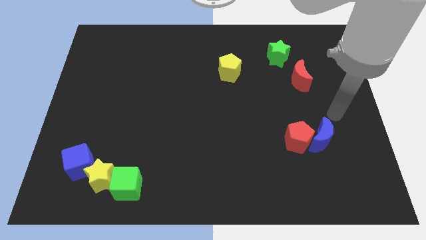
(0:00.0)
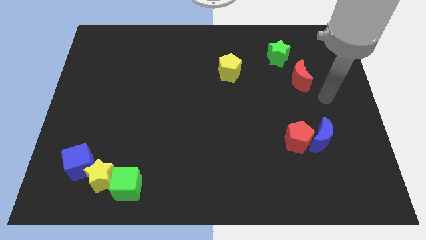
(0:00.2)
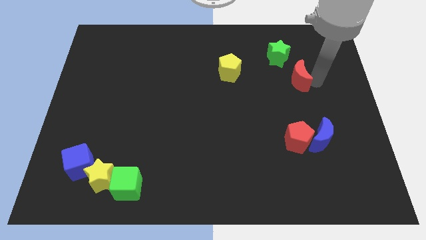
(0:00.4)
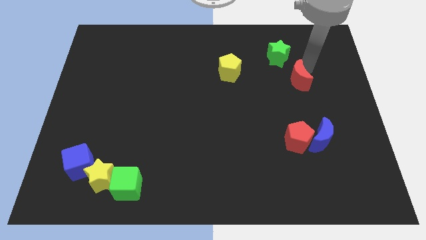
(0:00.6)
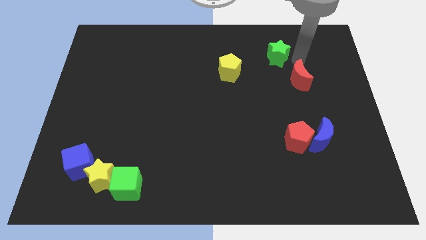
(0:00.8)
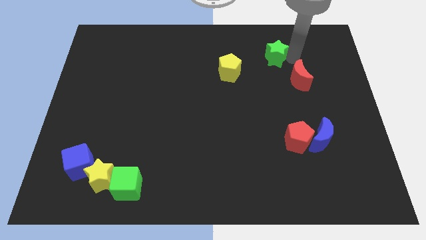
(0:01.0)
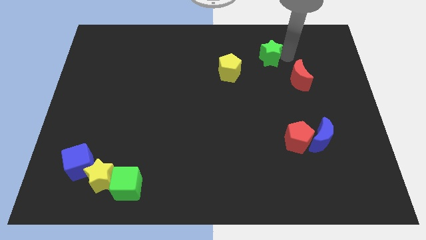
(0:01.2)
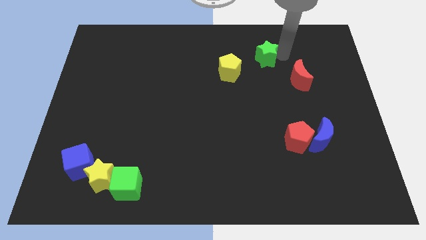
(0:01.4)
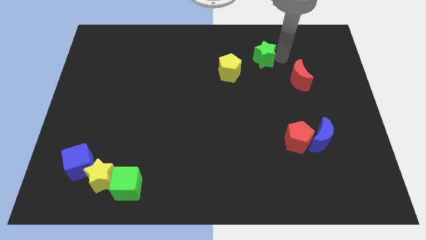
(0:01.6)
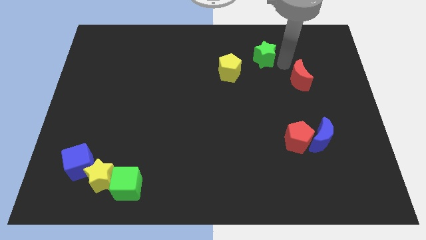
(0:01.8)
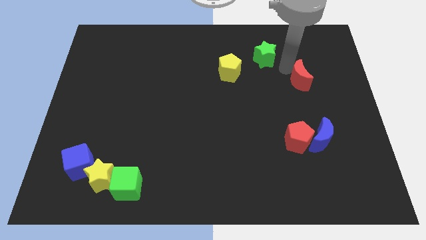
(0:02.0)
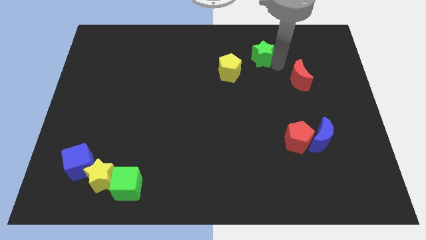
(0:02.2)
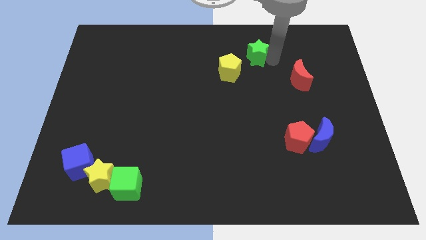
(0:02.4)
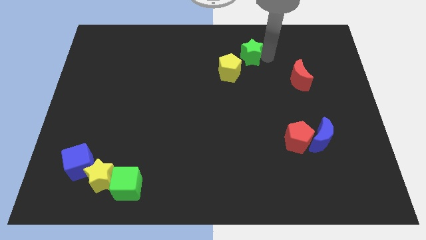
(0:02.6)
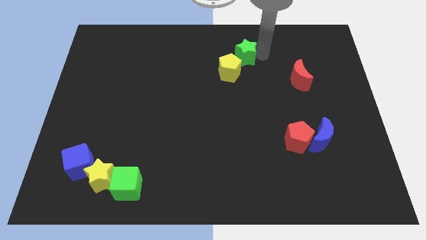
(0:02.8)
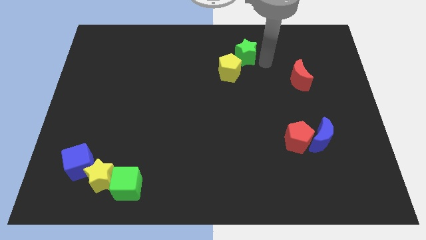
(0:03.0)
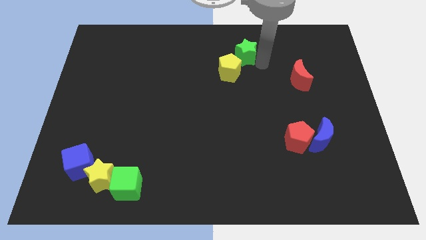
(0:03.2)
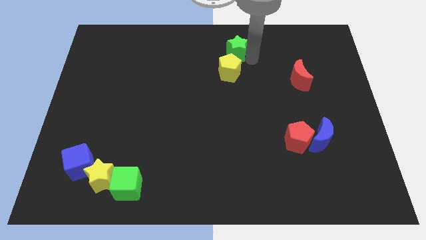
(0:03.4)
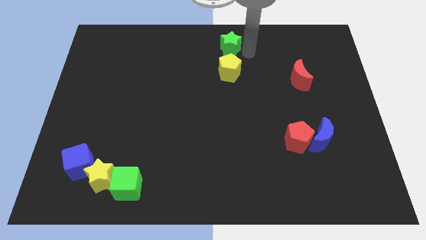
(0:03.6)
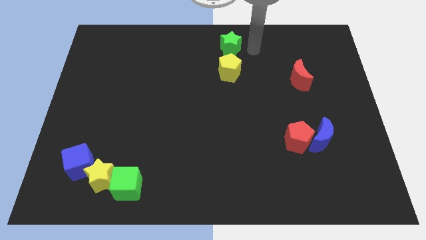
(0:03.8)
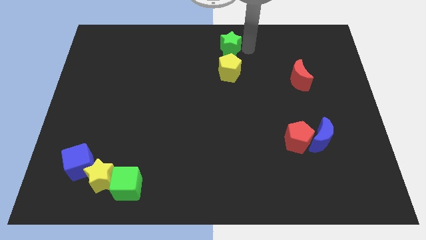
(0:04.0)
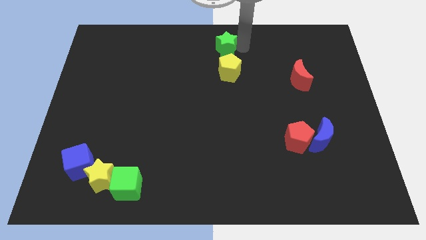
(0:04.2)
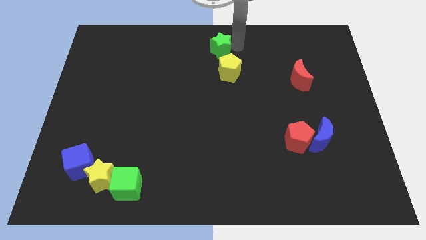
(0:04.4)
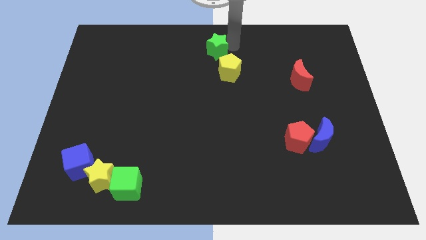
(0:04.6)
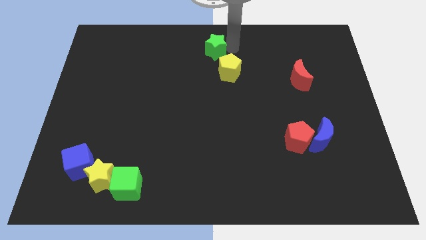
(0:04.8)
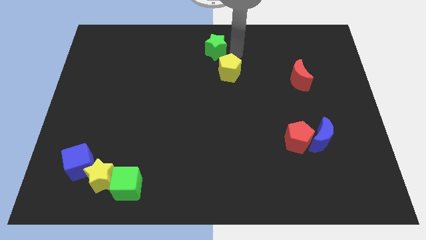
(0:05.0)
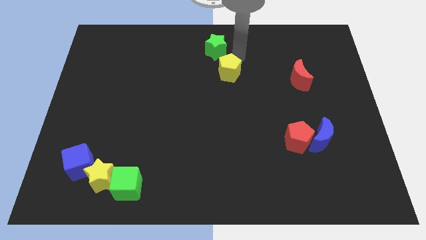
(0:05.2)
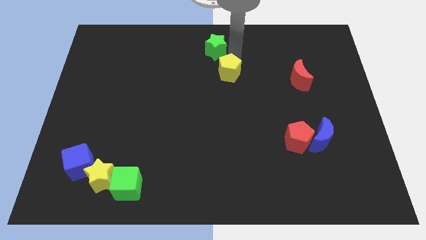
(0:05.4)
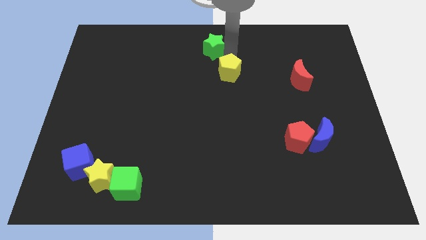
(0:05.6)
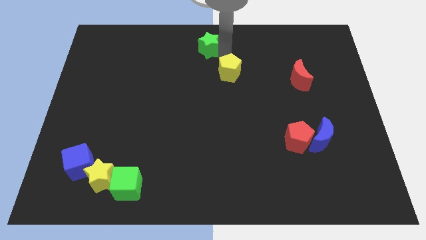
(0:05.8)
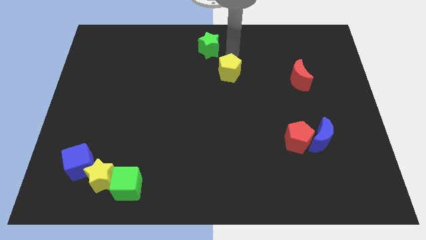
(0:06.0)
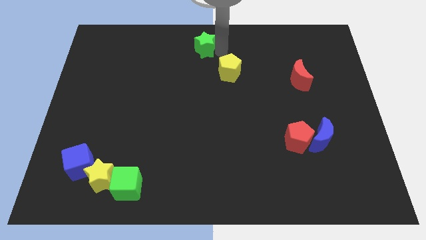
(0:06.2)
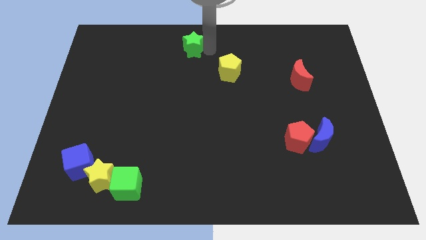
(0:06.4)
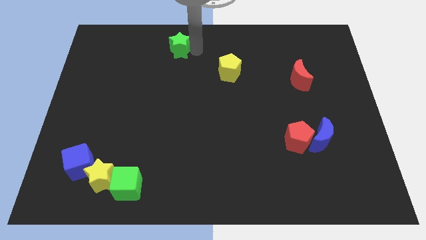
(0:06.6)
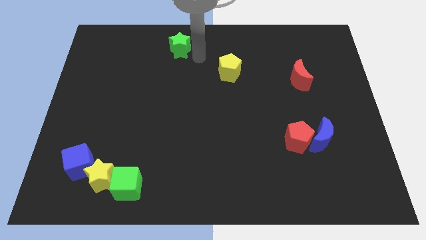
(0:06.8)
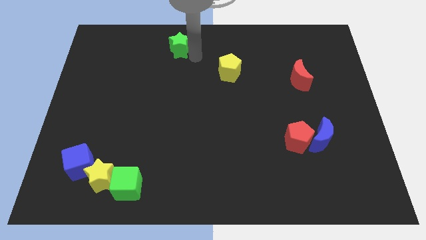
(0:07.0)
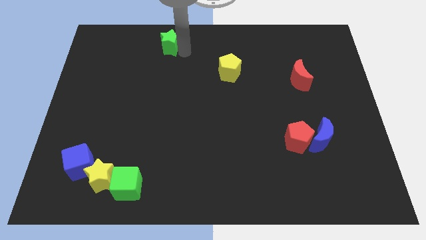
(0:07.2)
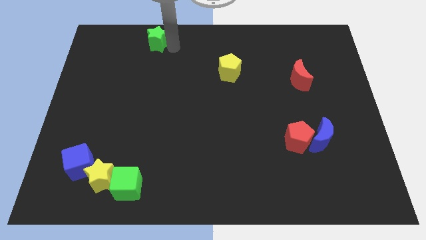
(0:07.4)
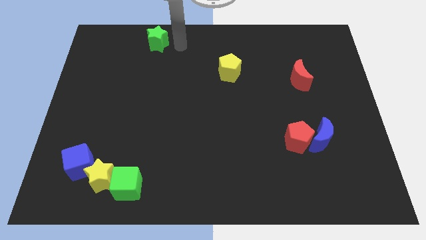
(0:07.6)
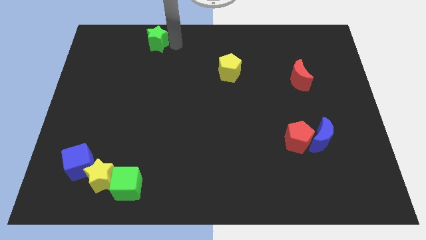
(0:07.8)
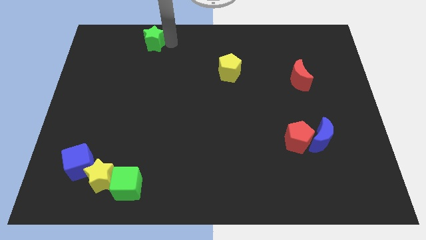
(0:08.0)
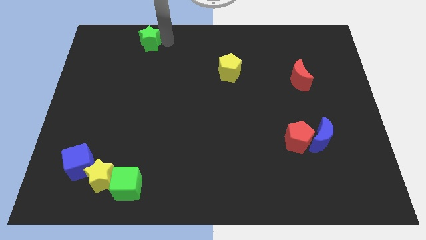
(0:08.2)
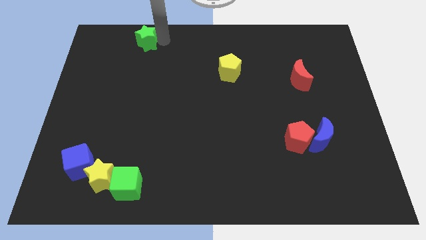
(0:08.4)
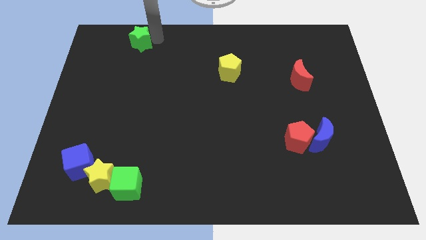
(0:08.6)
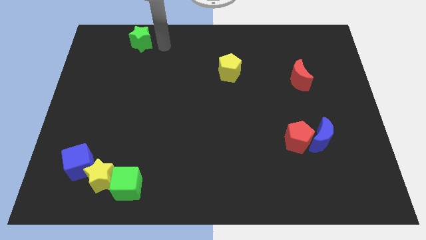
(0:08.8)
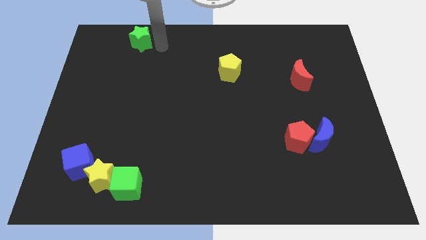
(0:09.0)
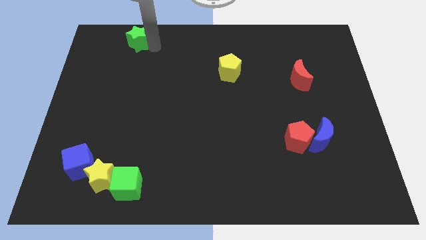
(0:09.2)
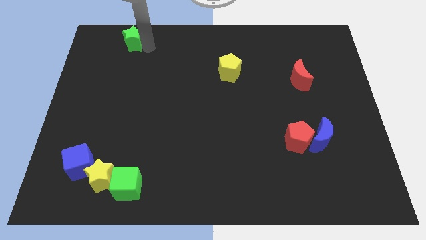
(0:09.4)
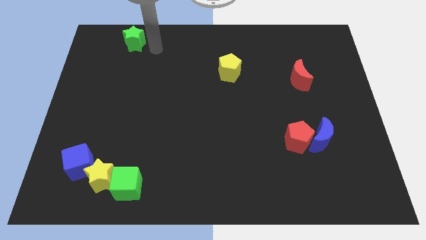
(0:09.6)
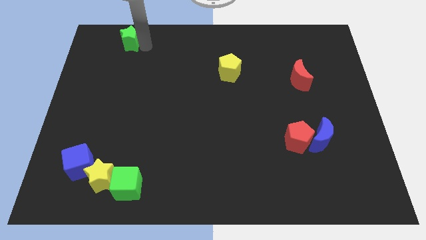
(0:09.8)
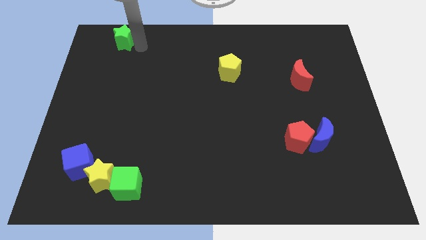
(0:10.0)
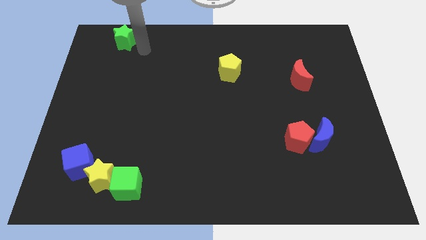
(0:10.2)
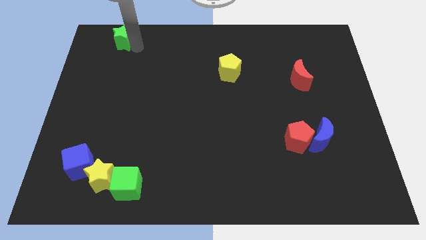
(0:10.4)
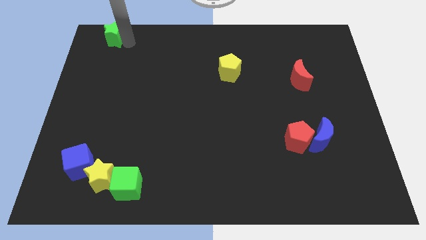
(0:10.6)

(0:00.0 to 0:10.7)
move the green star to the top left

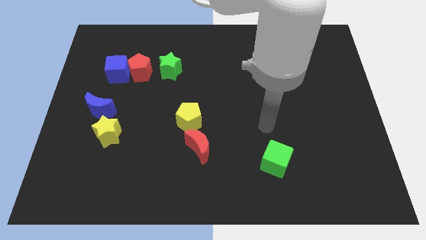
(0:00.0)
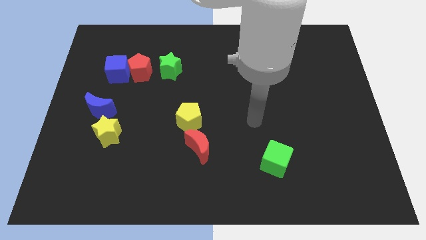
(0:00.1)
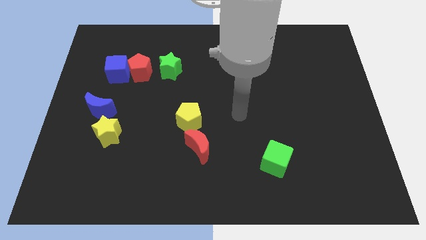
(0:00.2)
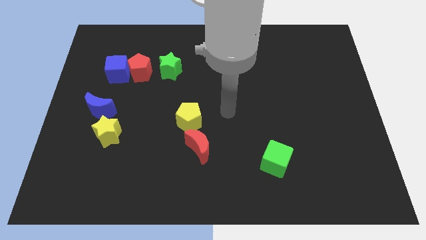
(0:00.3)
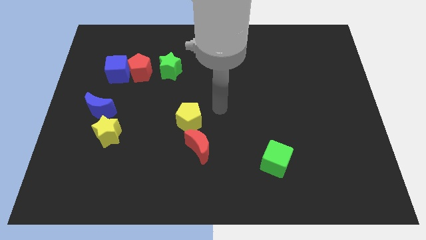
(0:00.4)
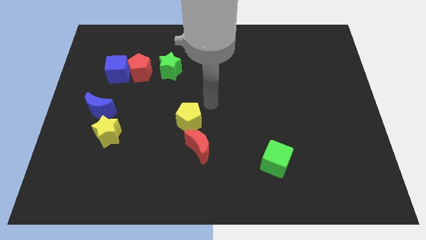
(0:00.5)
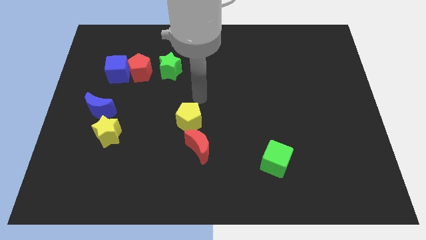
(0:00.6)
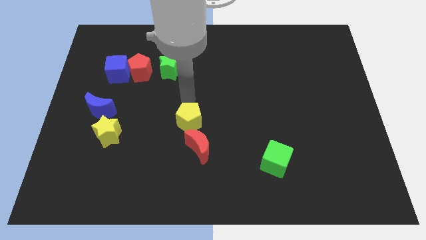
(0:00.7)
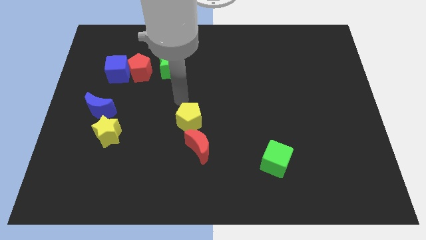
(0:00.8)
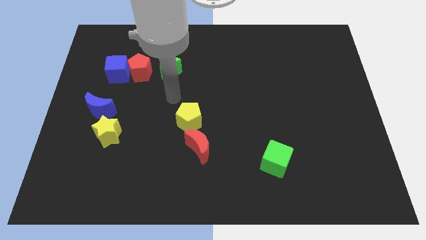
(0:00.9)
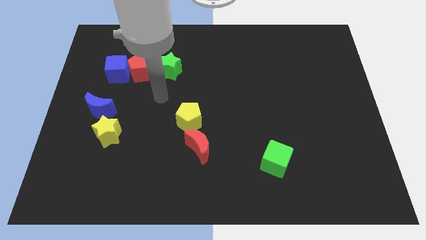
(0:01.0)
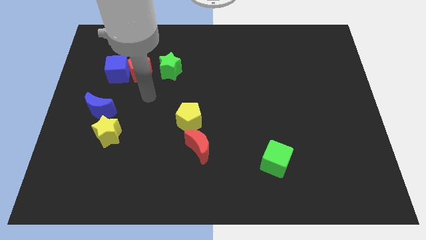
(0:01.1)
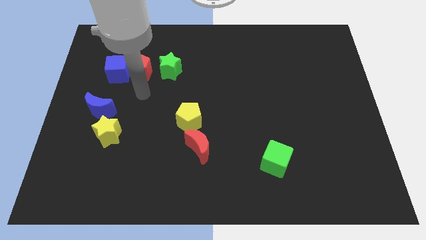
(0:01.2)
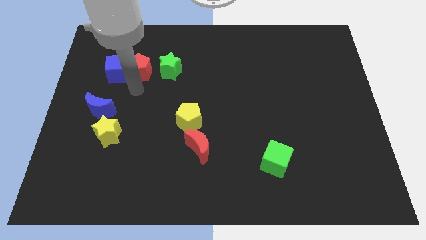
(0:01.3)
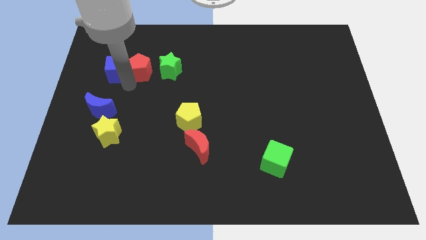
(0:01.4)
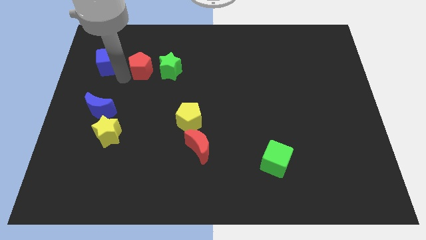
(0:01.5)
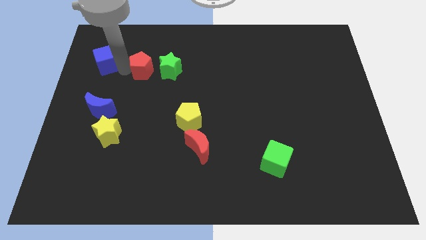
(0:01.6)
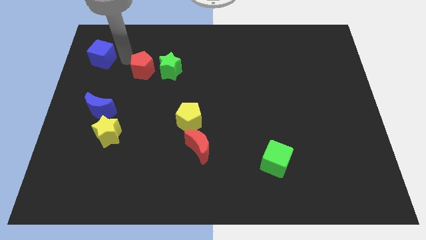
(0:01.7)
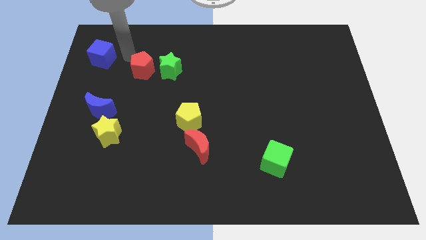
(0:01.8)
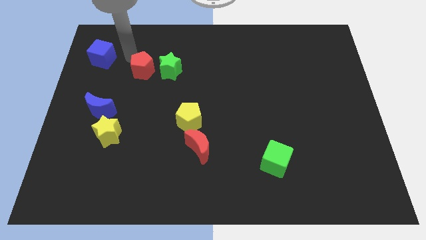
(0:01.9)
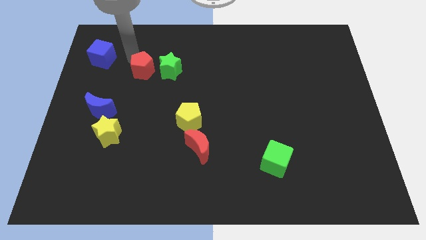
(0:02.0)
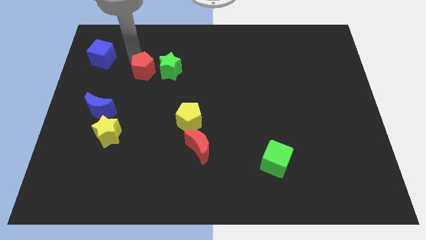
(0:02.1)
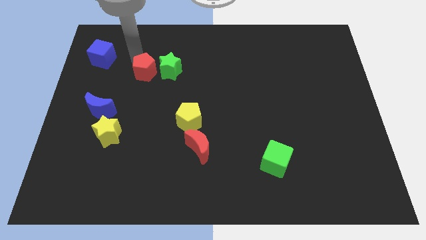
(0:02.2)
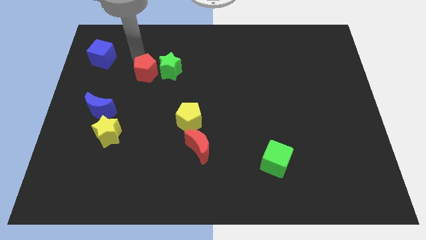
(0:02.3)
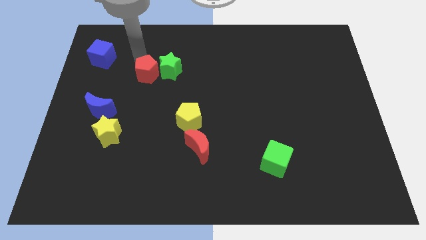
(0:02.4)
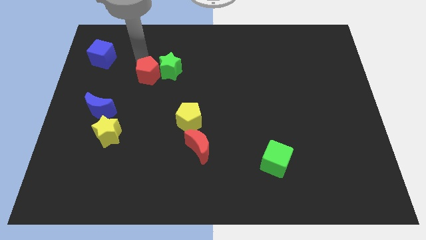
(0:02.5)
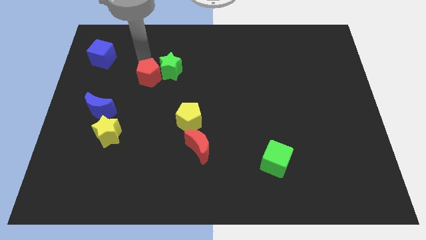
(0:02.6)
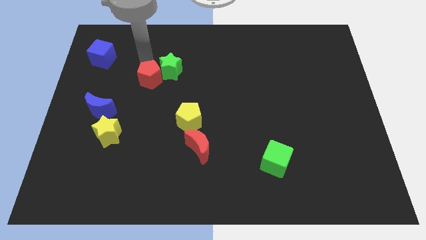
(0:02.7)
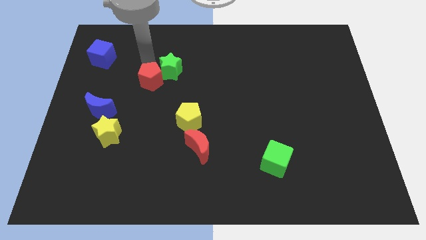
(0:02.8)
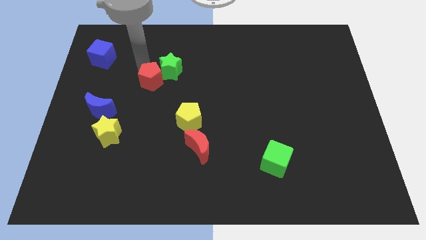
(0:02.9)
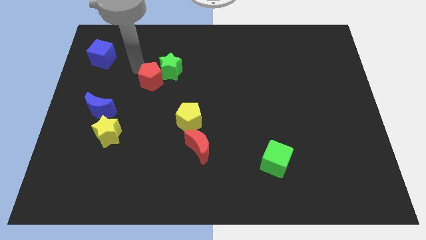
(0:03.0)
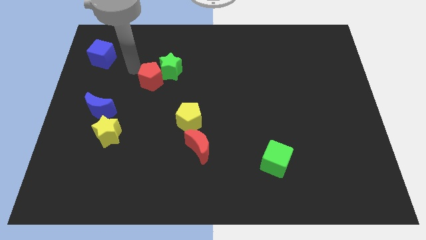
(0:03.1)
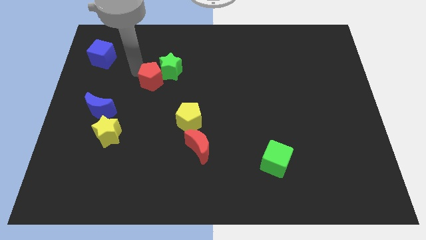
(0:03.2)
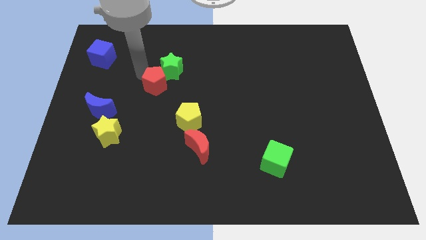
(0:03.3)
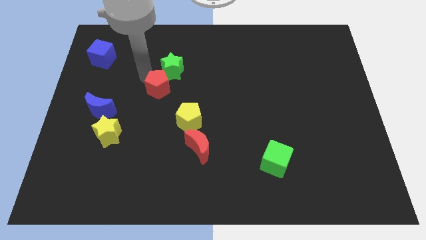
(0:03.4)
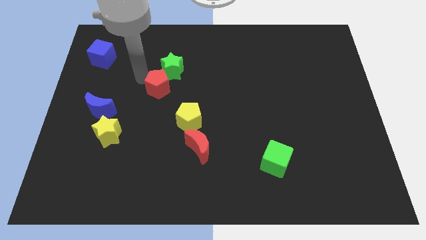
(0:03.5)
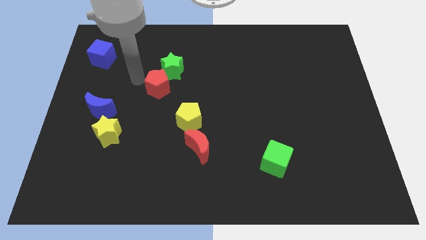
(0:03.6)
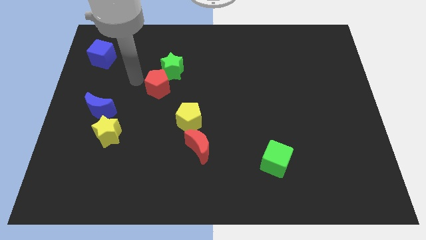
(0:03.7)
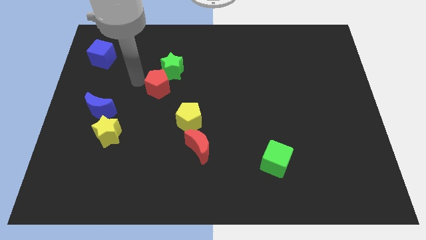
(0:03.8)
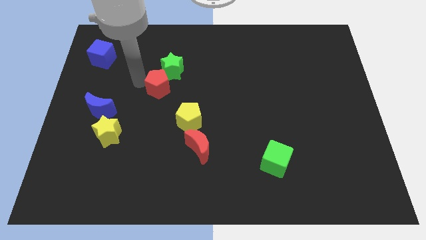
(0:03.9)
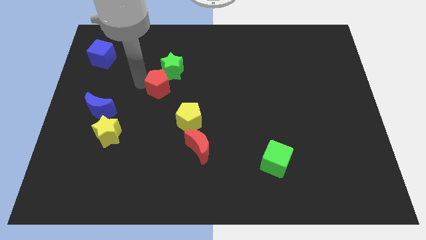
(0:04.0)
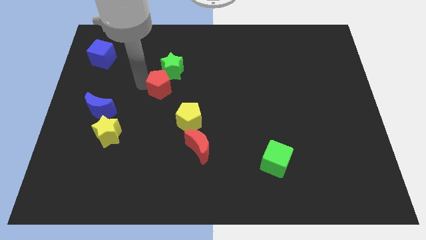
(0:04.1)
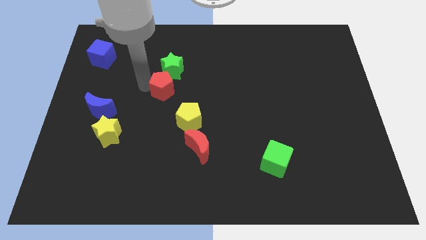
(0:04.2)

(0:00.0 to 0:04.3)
put the red pentagon to the center of the board
